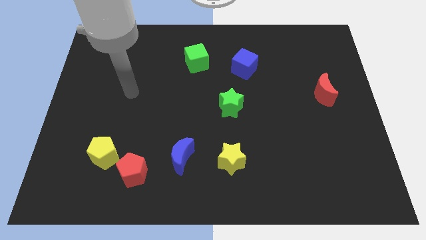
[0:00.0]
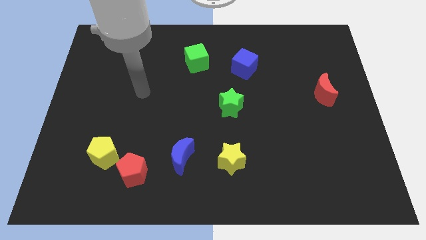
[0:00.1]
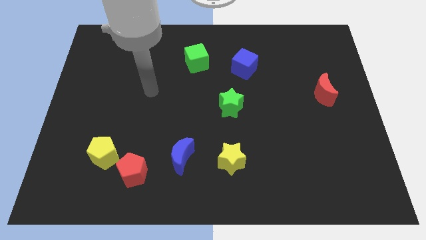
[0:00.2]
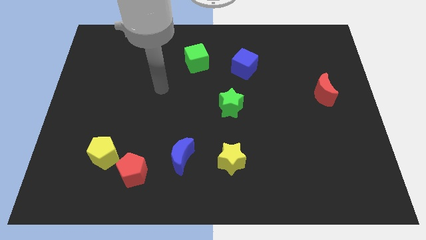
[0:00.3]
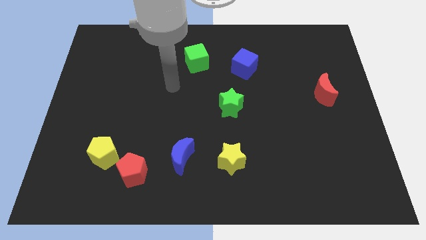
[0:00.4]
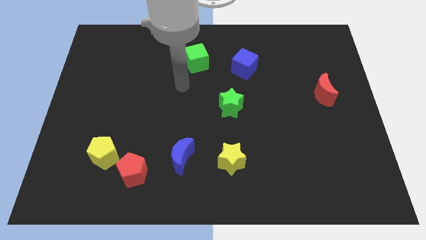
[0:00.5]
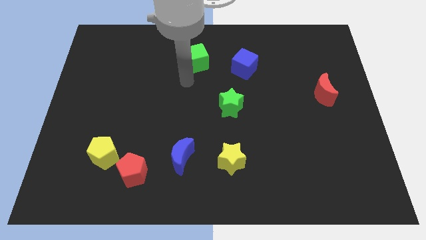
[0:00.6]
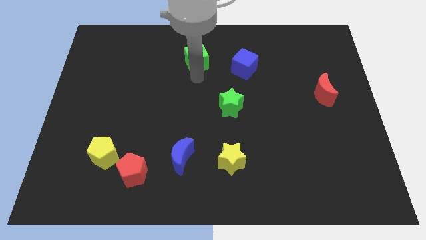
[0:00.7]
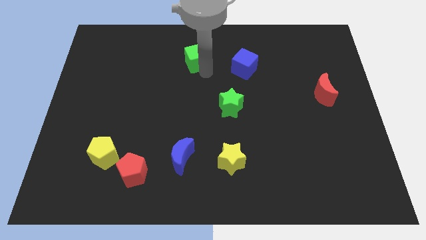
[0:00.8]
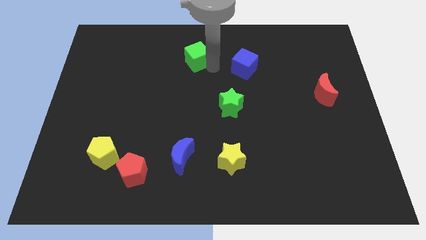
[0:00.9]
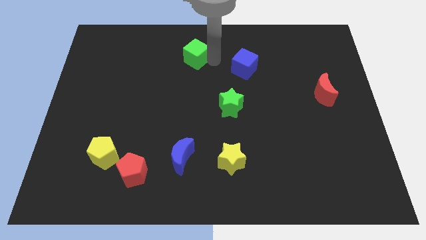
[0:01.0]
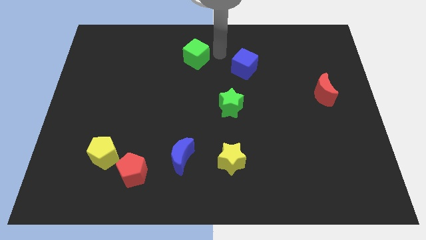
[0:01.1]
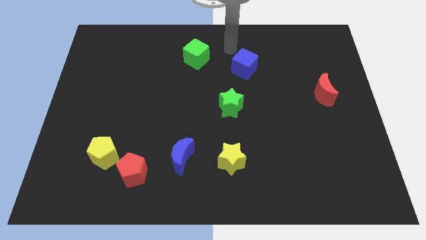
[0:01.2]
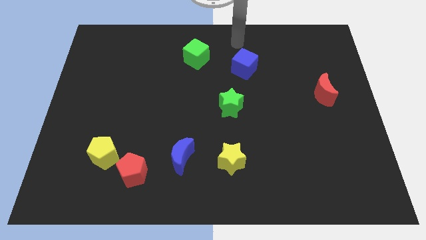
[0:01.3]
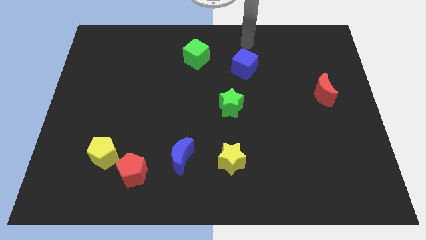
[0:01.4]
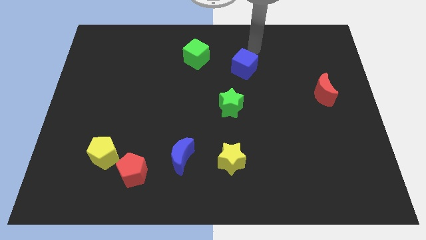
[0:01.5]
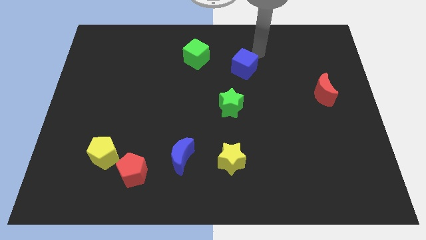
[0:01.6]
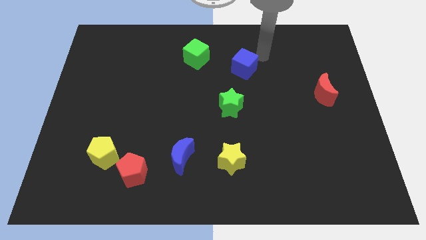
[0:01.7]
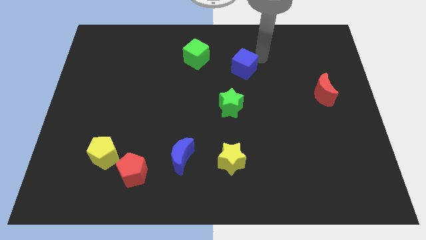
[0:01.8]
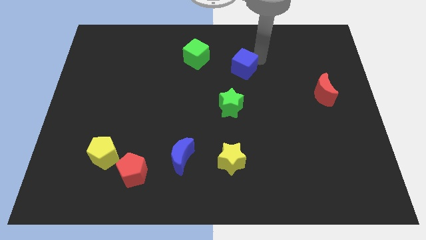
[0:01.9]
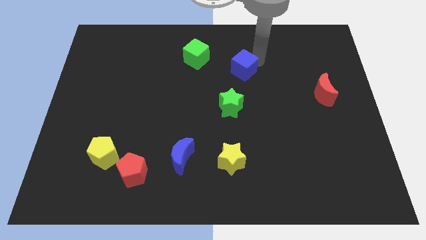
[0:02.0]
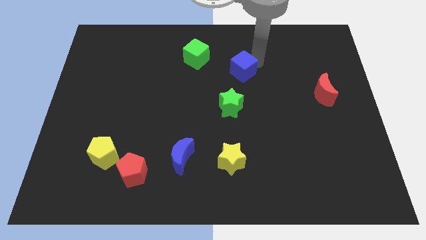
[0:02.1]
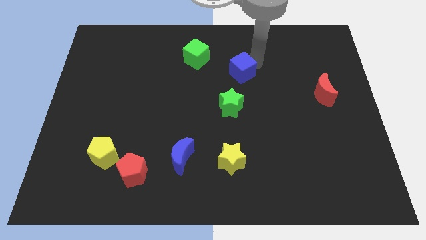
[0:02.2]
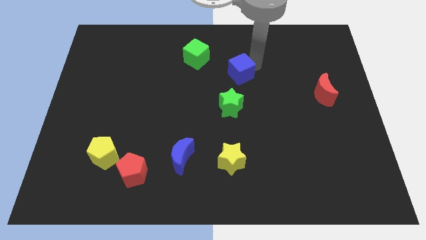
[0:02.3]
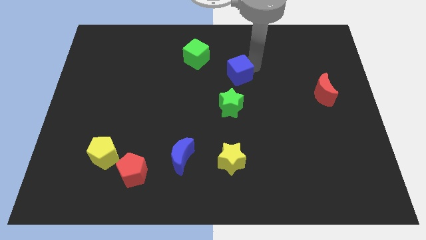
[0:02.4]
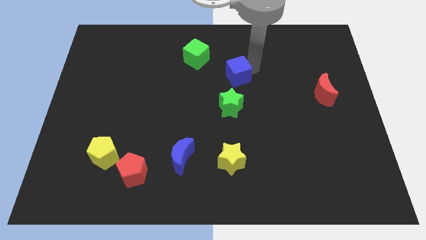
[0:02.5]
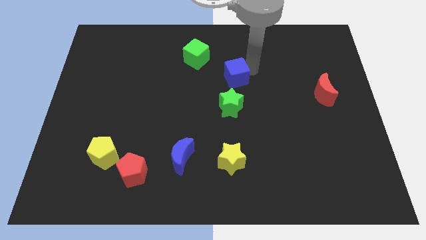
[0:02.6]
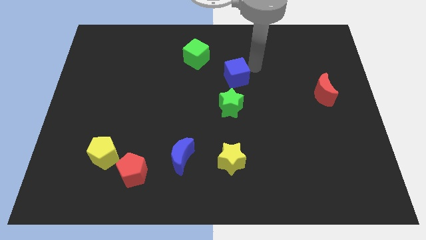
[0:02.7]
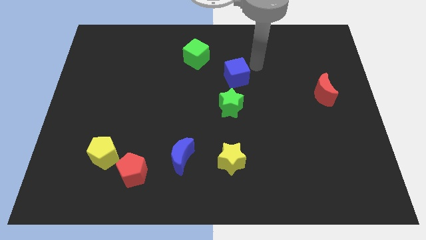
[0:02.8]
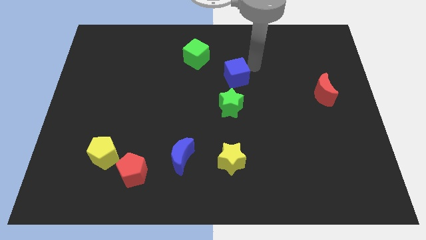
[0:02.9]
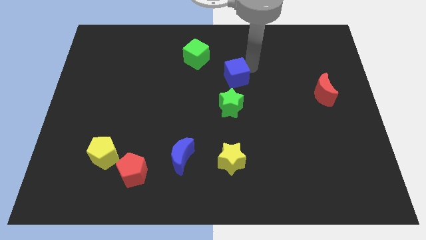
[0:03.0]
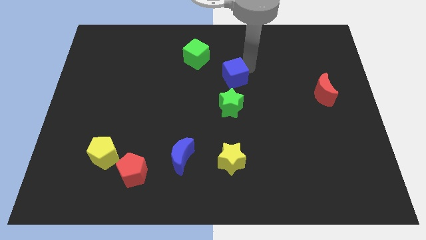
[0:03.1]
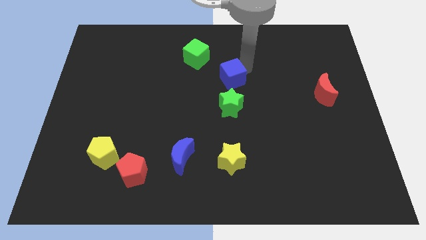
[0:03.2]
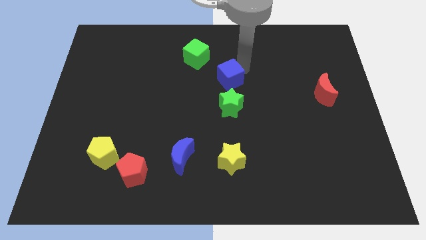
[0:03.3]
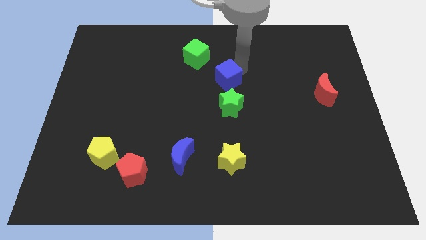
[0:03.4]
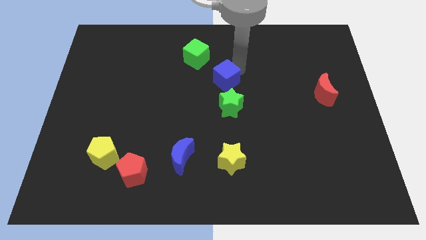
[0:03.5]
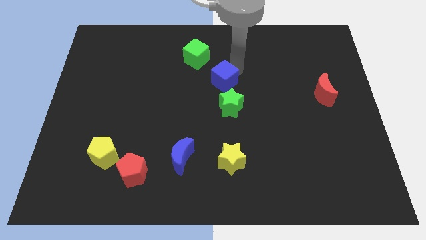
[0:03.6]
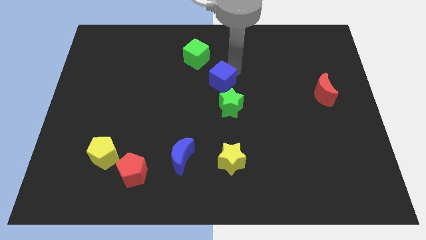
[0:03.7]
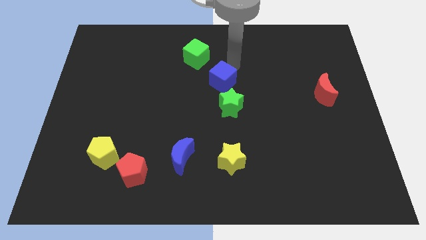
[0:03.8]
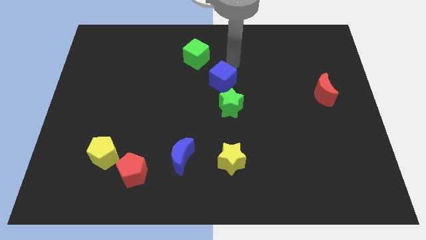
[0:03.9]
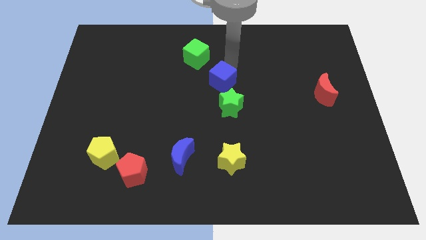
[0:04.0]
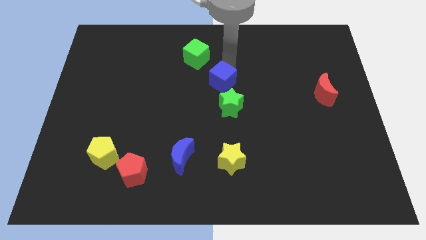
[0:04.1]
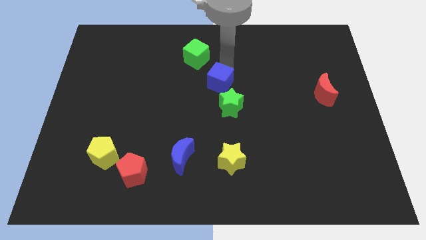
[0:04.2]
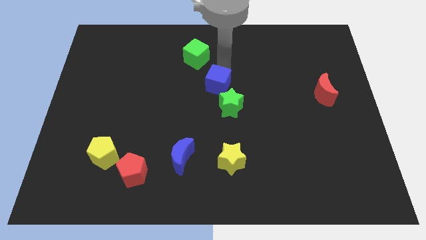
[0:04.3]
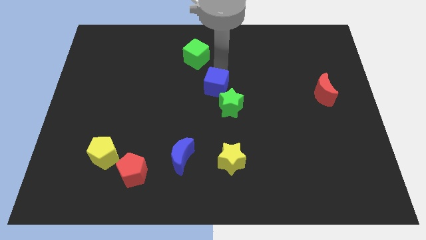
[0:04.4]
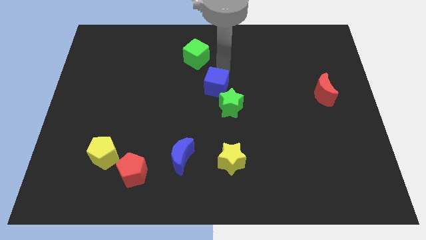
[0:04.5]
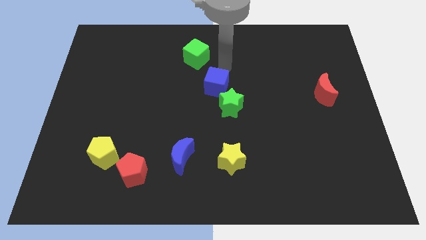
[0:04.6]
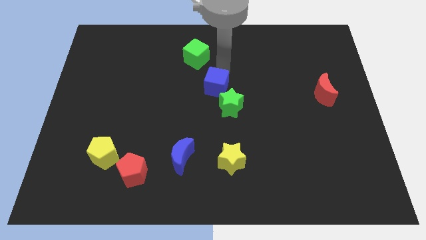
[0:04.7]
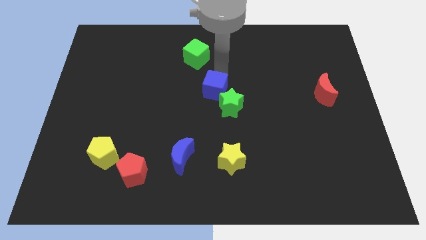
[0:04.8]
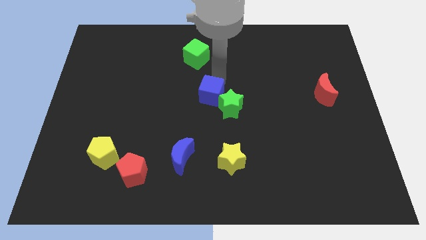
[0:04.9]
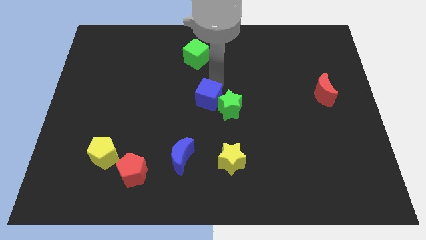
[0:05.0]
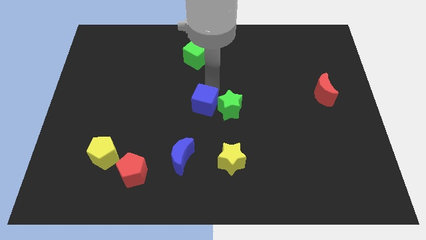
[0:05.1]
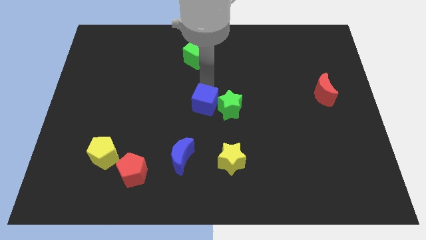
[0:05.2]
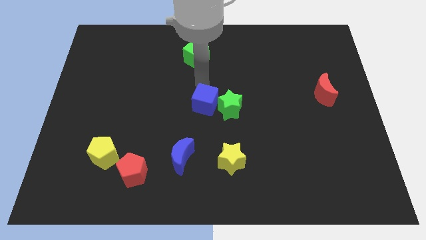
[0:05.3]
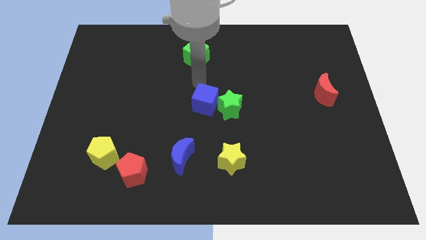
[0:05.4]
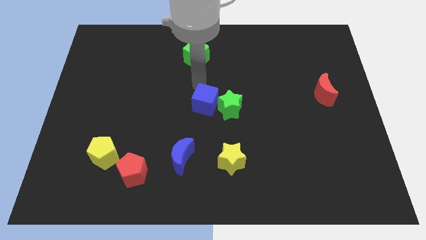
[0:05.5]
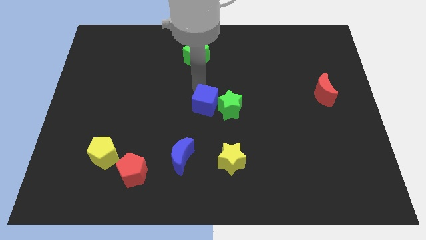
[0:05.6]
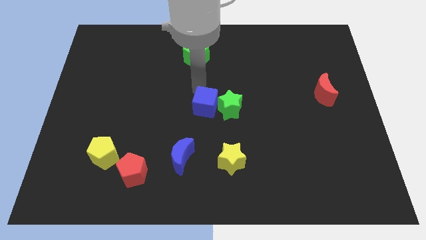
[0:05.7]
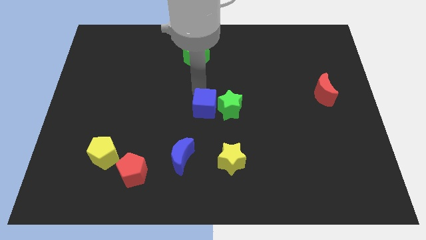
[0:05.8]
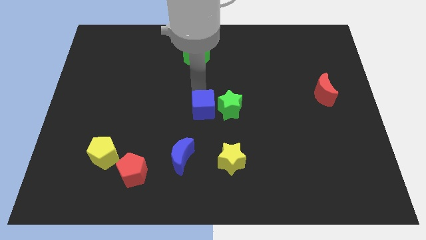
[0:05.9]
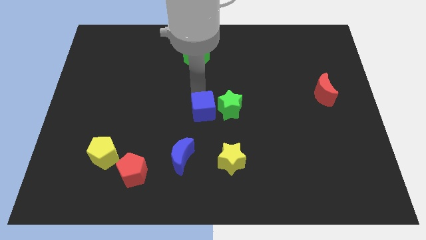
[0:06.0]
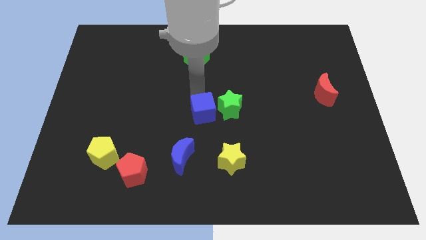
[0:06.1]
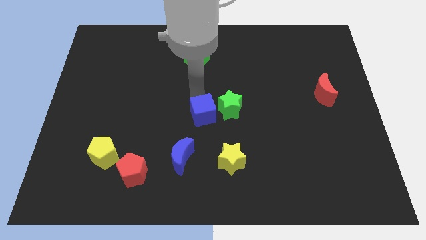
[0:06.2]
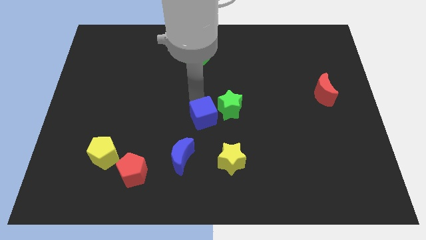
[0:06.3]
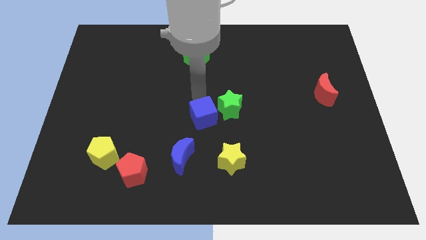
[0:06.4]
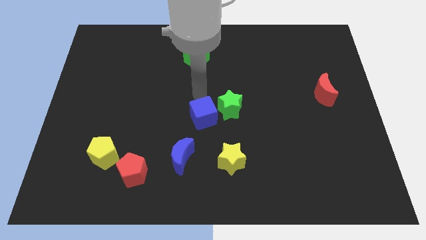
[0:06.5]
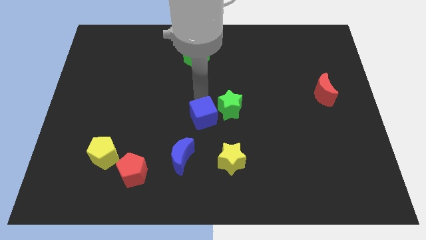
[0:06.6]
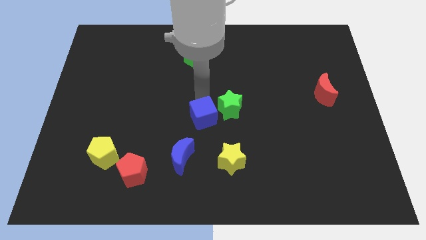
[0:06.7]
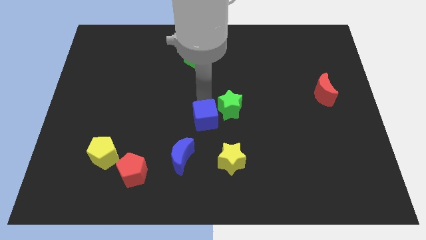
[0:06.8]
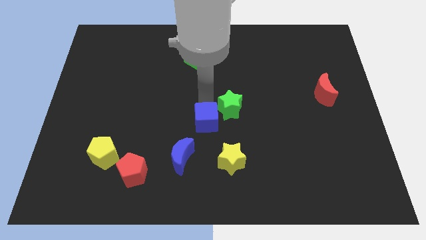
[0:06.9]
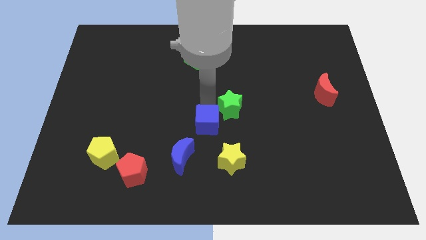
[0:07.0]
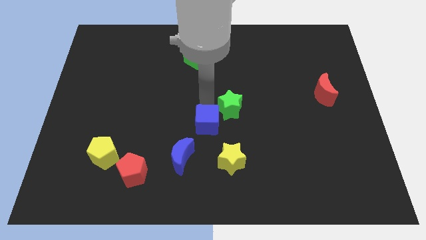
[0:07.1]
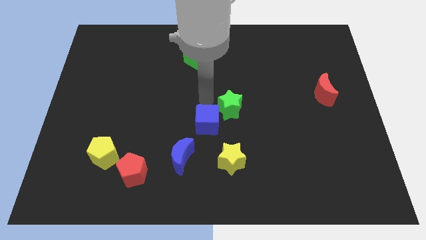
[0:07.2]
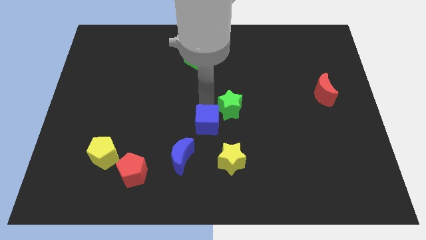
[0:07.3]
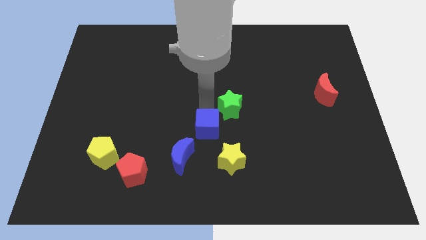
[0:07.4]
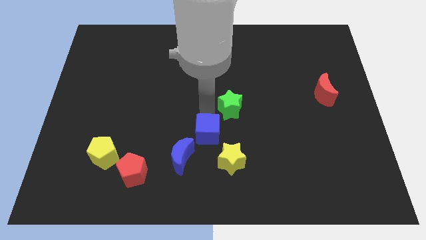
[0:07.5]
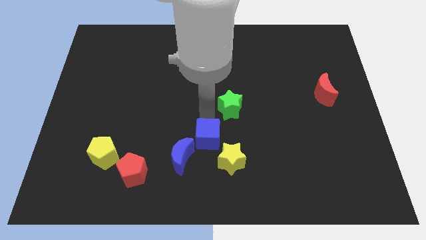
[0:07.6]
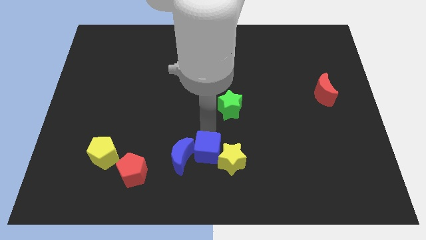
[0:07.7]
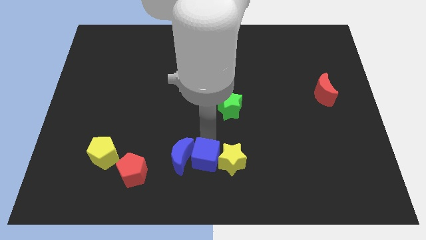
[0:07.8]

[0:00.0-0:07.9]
put the blue cube to the bottom left side of the yellow star
